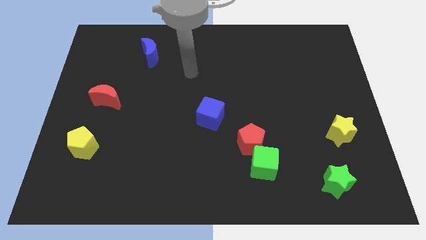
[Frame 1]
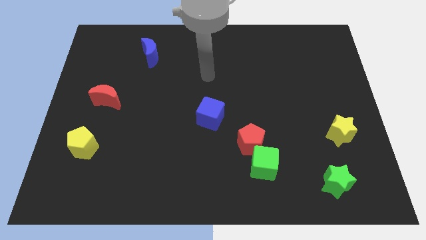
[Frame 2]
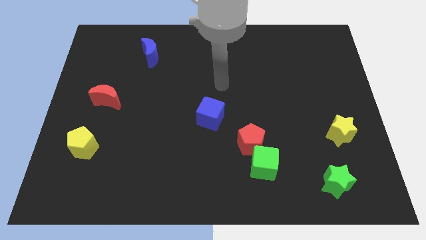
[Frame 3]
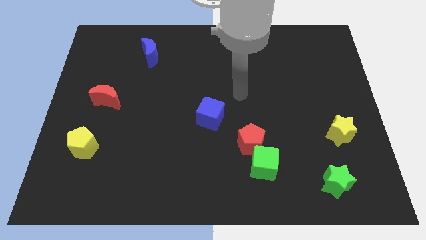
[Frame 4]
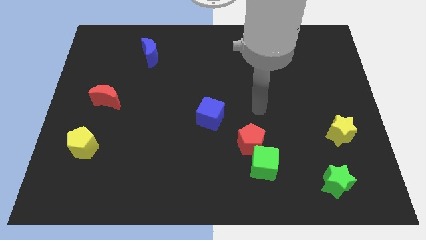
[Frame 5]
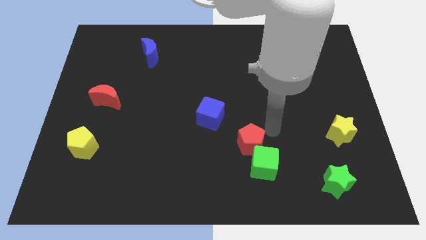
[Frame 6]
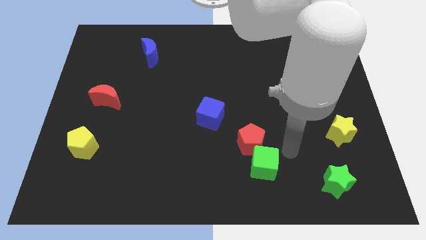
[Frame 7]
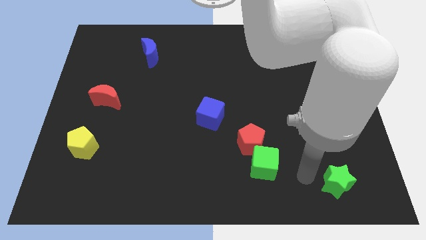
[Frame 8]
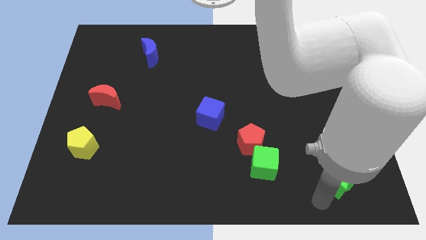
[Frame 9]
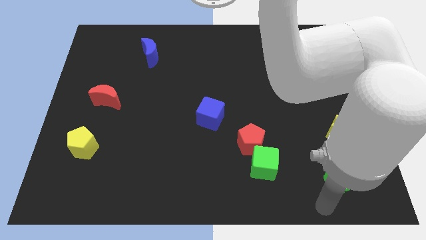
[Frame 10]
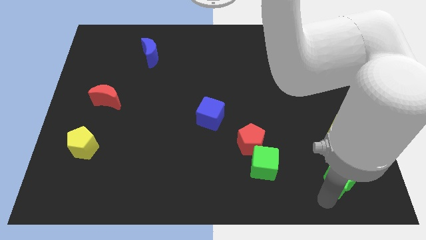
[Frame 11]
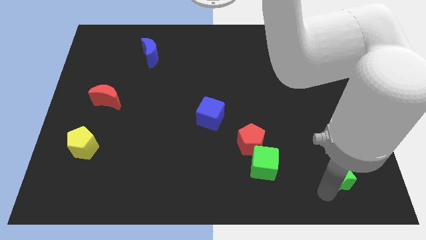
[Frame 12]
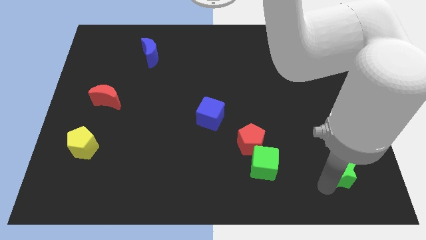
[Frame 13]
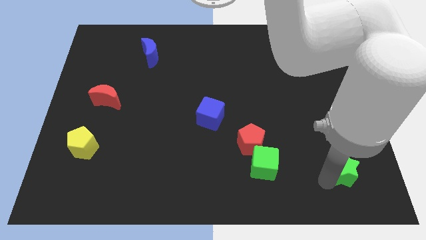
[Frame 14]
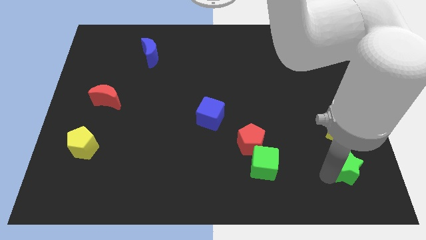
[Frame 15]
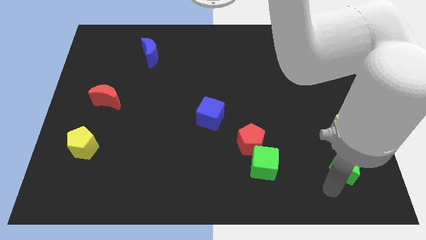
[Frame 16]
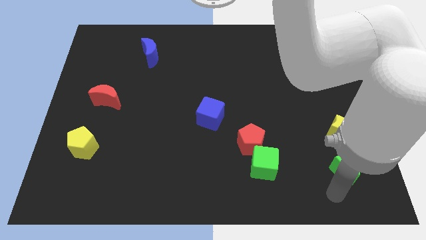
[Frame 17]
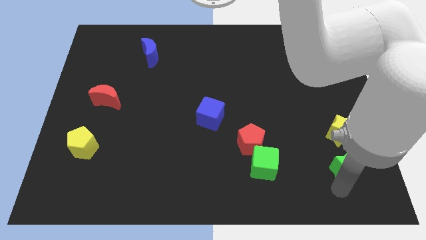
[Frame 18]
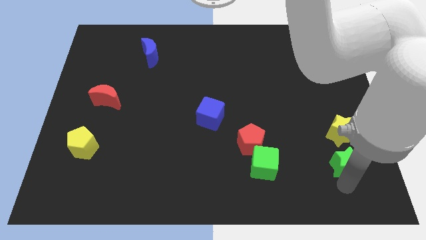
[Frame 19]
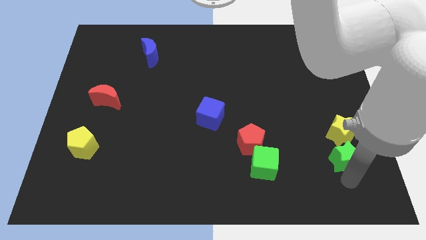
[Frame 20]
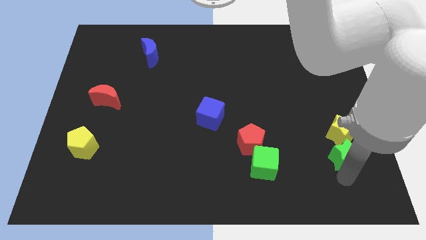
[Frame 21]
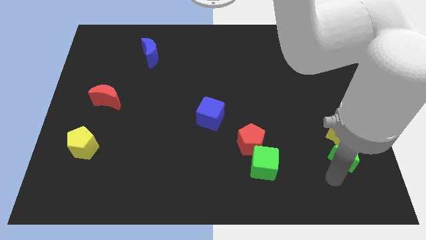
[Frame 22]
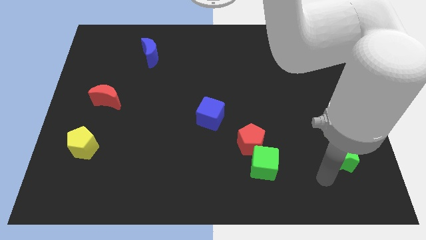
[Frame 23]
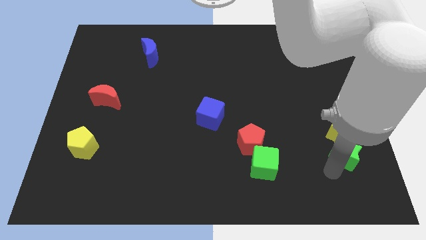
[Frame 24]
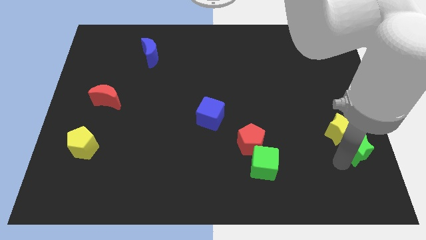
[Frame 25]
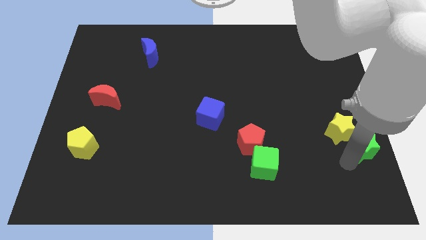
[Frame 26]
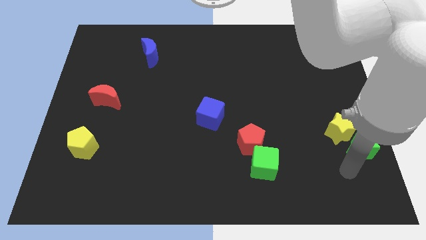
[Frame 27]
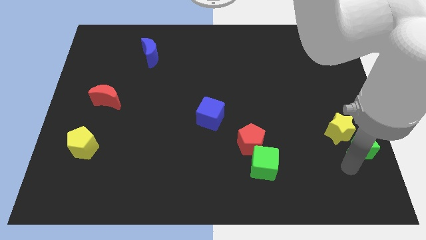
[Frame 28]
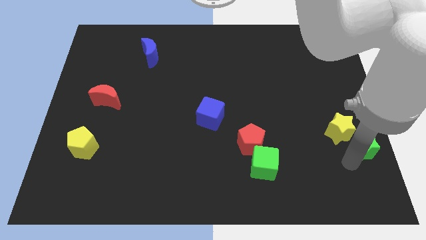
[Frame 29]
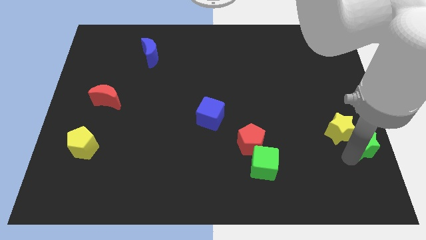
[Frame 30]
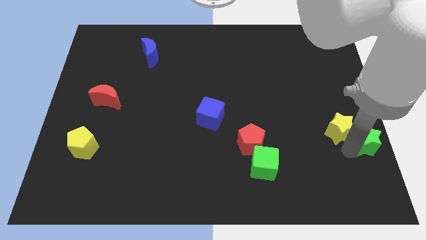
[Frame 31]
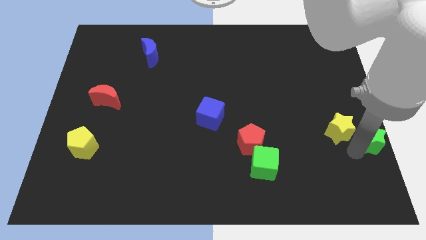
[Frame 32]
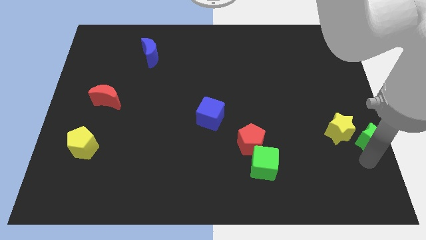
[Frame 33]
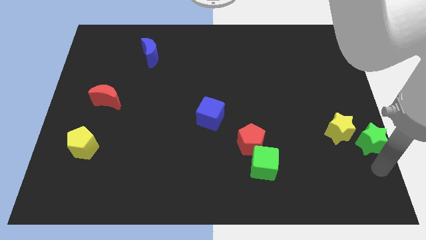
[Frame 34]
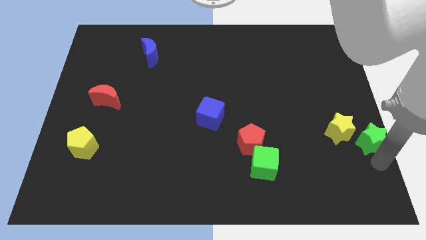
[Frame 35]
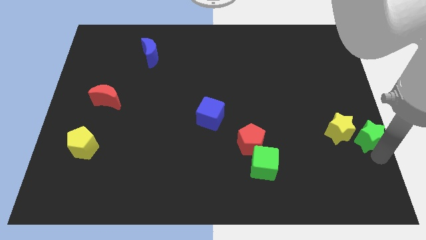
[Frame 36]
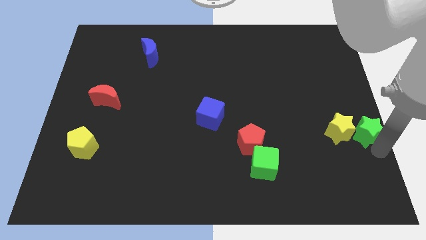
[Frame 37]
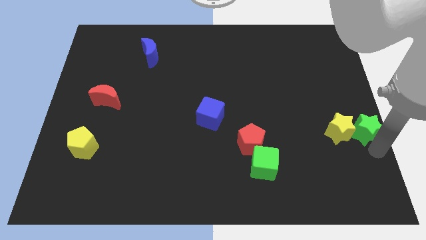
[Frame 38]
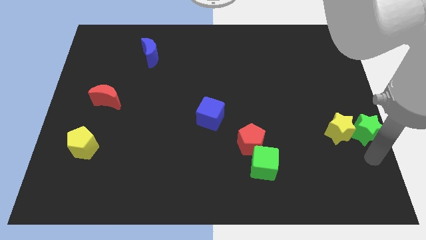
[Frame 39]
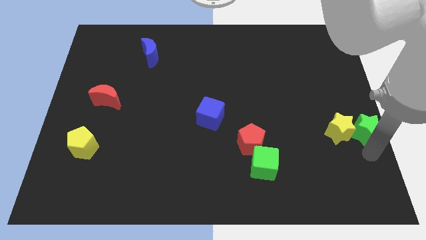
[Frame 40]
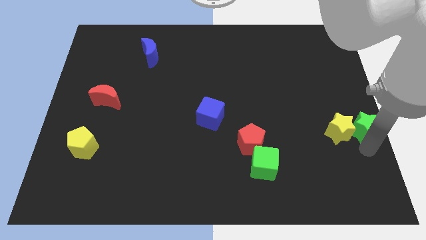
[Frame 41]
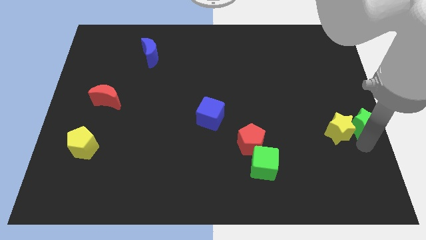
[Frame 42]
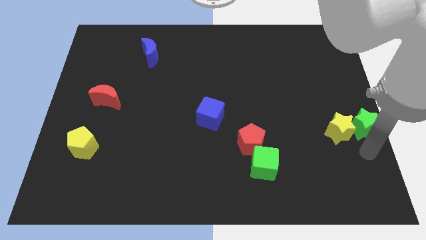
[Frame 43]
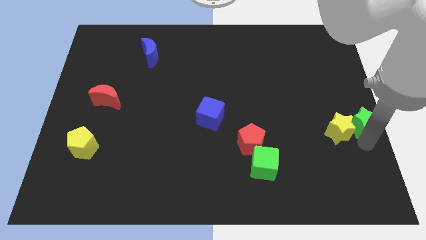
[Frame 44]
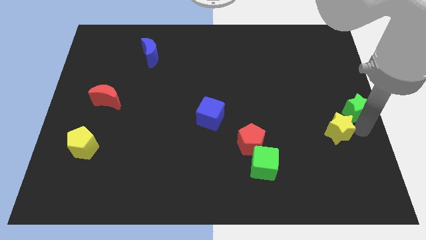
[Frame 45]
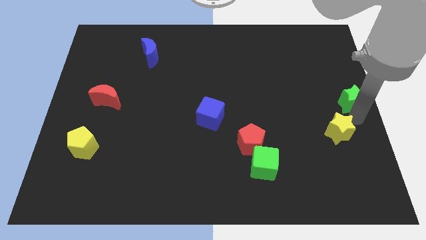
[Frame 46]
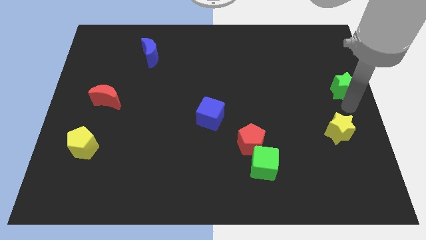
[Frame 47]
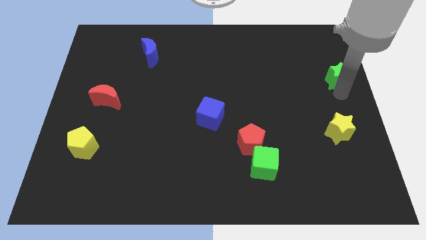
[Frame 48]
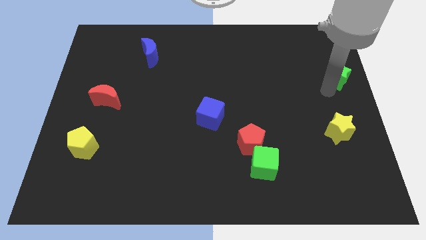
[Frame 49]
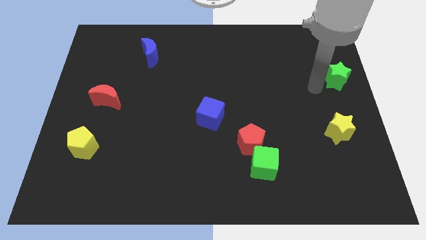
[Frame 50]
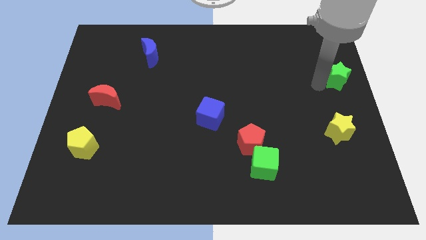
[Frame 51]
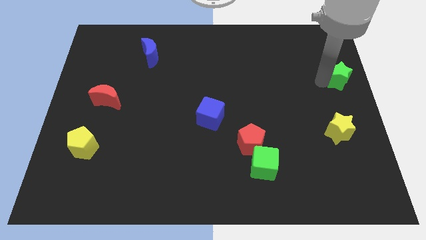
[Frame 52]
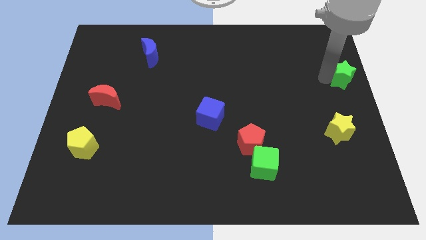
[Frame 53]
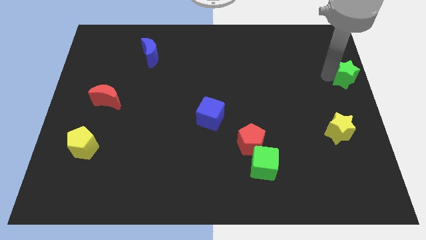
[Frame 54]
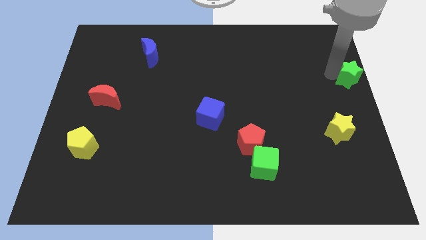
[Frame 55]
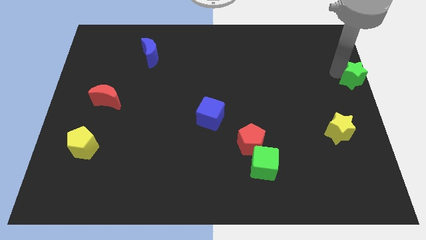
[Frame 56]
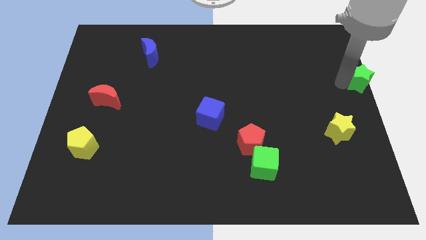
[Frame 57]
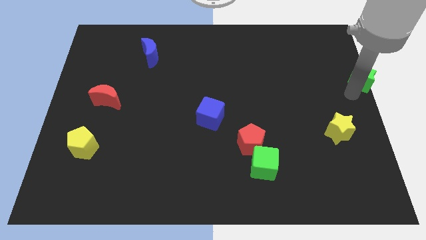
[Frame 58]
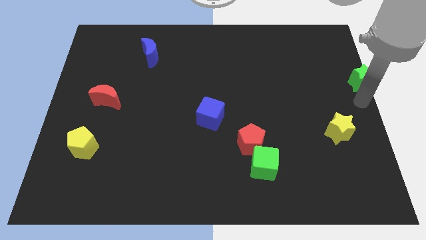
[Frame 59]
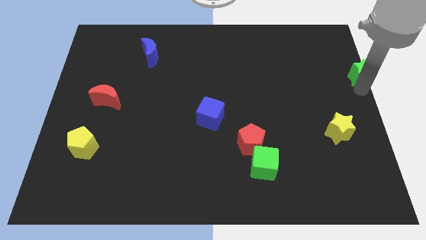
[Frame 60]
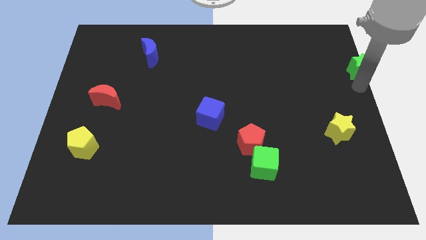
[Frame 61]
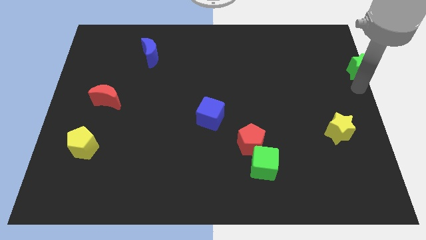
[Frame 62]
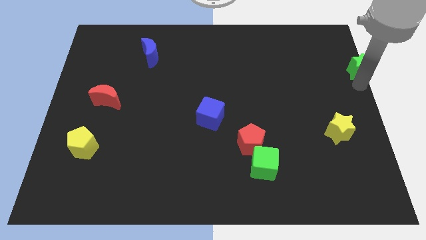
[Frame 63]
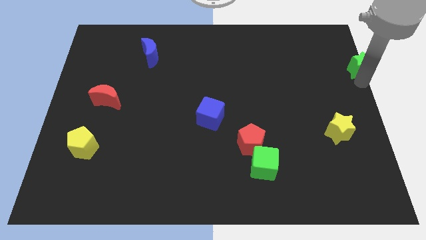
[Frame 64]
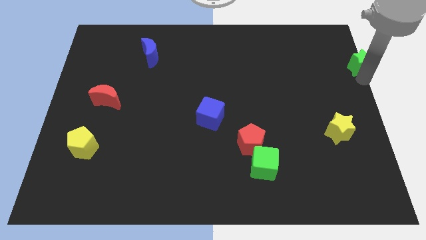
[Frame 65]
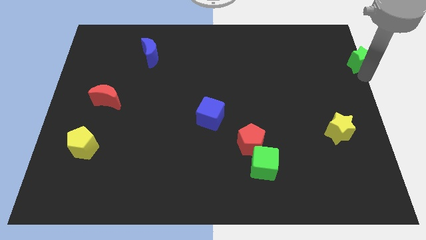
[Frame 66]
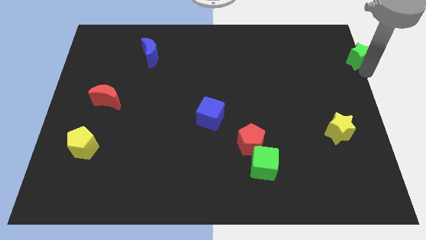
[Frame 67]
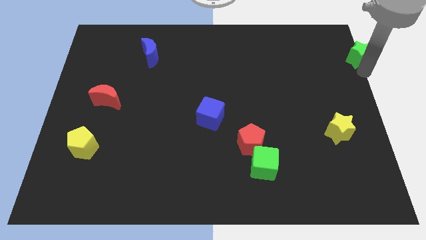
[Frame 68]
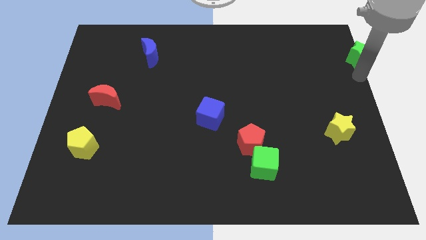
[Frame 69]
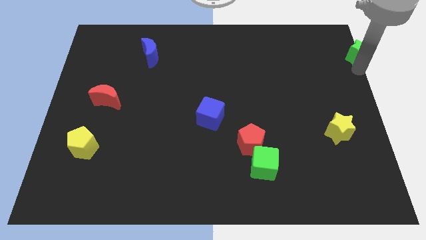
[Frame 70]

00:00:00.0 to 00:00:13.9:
put the green star to the upper right corner

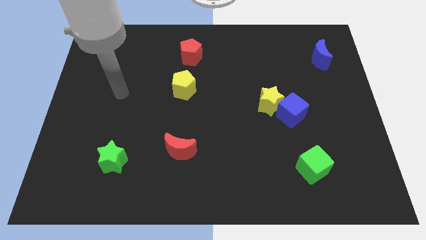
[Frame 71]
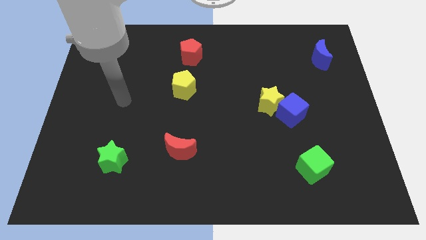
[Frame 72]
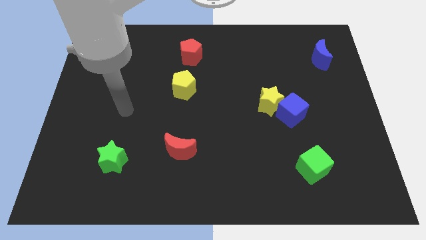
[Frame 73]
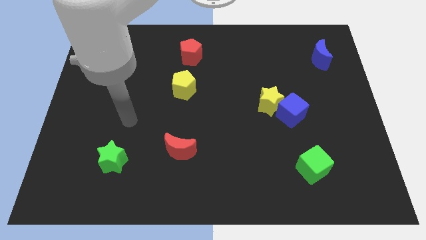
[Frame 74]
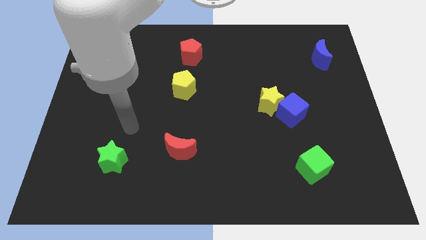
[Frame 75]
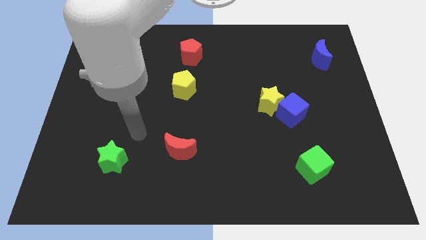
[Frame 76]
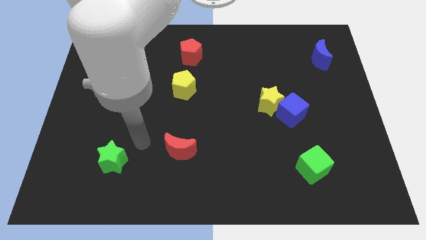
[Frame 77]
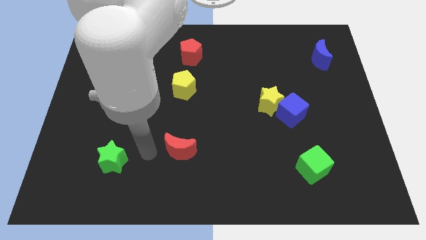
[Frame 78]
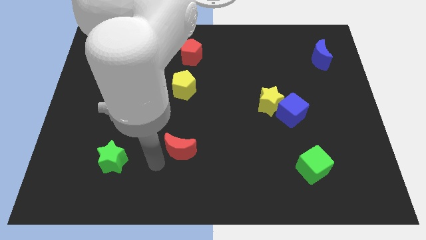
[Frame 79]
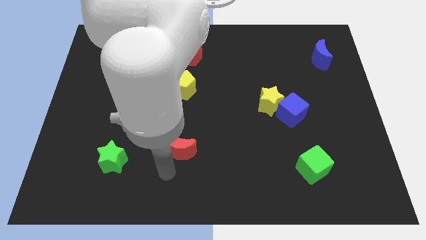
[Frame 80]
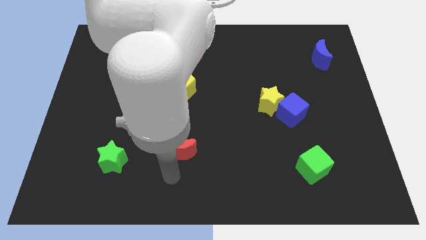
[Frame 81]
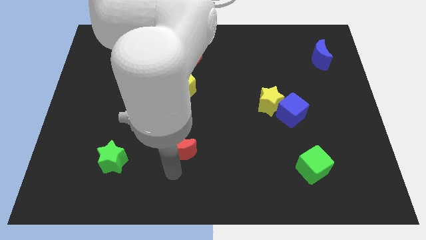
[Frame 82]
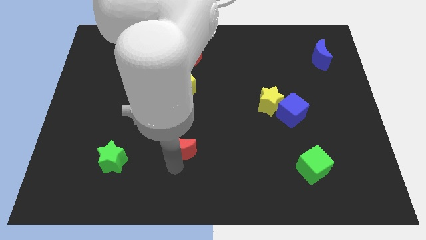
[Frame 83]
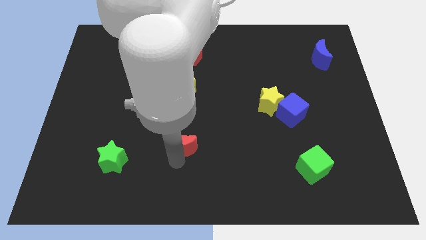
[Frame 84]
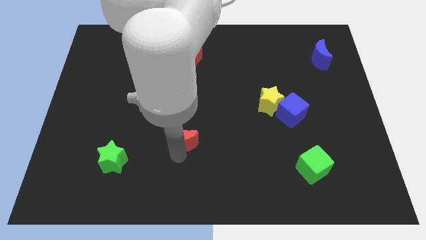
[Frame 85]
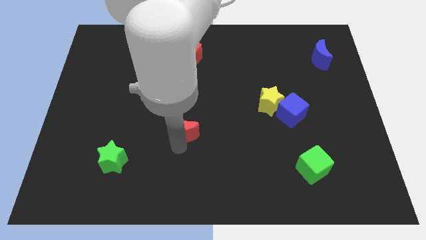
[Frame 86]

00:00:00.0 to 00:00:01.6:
push the red moon to the middle of the board
